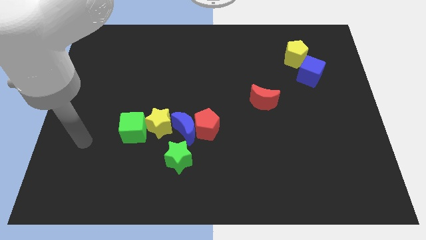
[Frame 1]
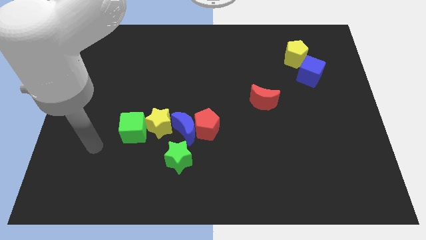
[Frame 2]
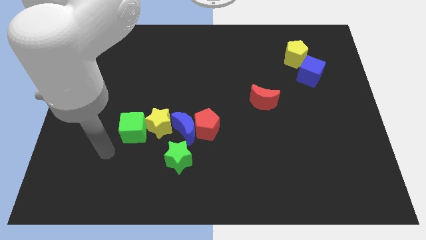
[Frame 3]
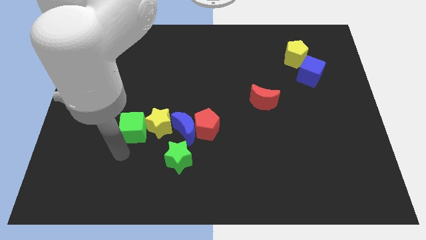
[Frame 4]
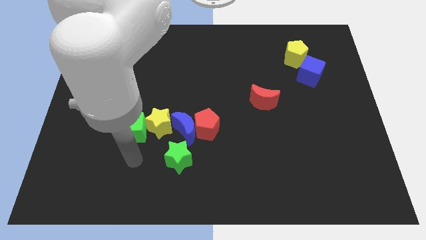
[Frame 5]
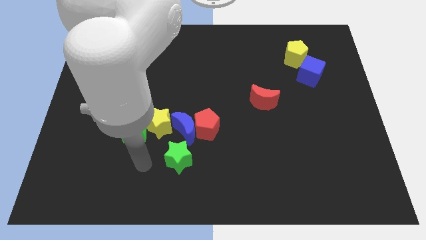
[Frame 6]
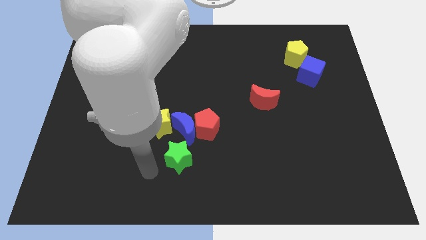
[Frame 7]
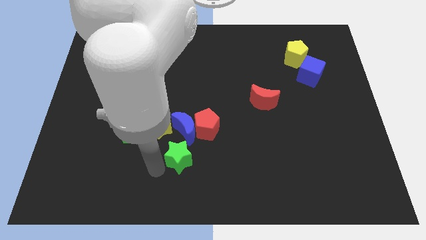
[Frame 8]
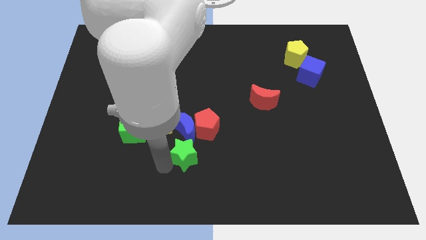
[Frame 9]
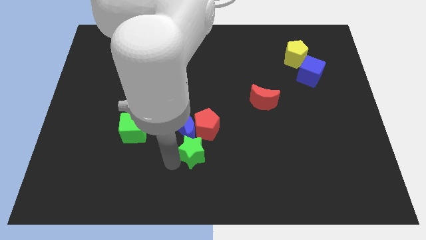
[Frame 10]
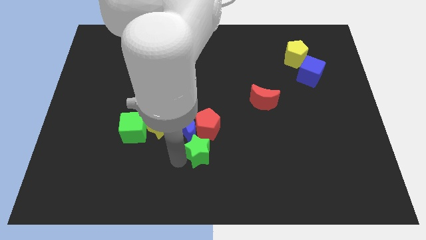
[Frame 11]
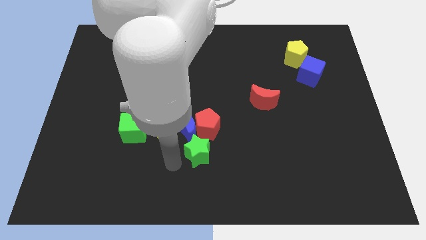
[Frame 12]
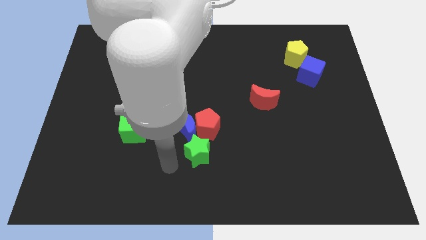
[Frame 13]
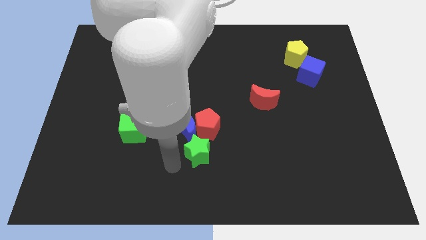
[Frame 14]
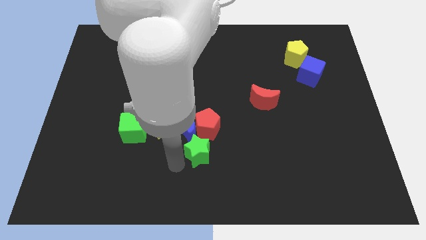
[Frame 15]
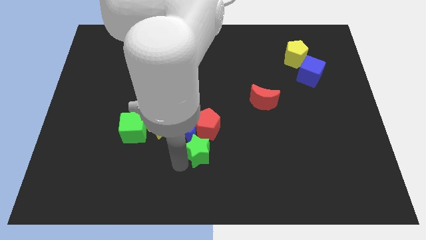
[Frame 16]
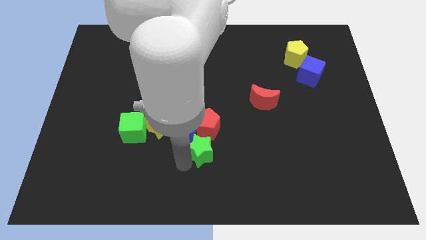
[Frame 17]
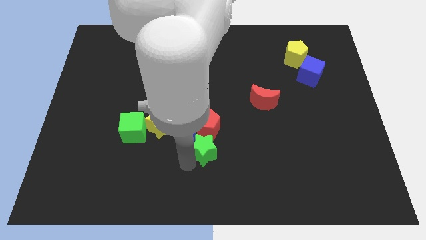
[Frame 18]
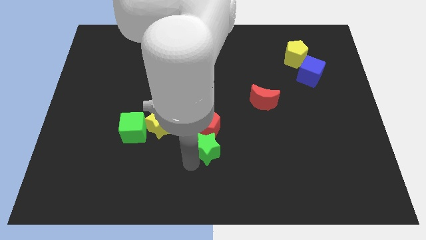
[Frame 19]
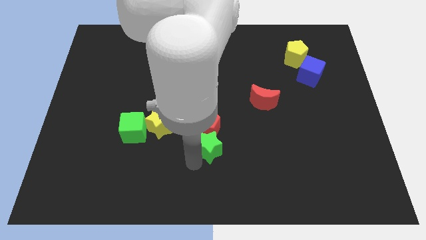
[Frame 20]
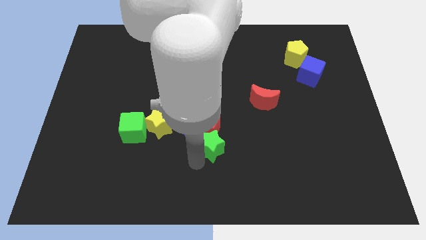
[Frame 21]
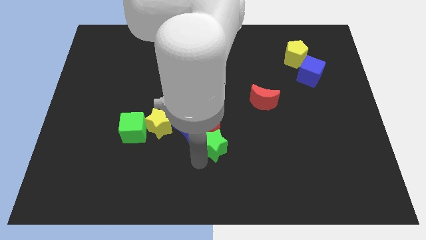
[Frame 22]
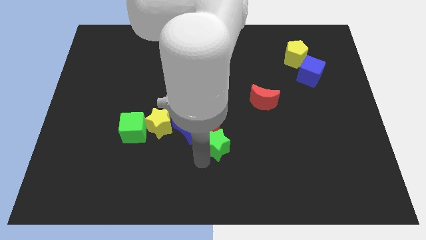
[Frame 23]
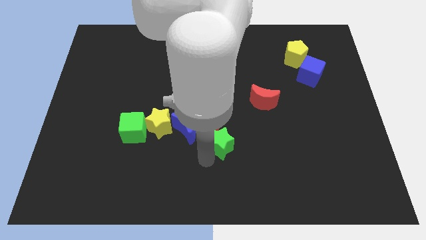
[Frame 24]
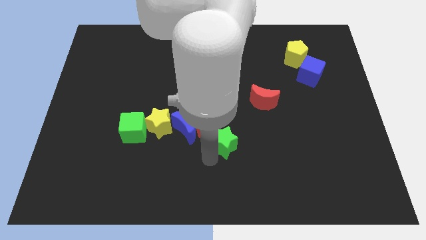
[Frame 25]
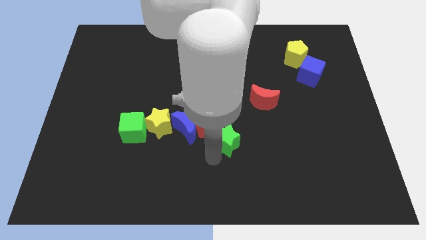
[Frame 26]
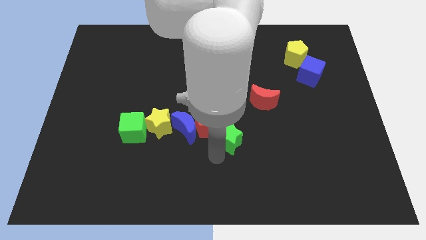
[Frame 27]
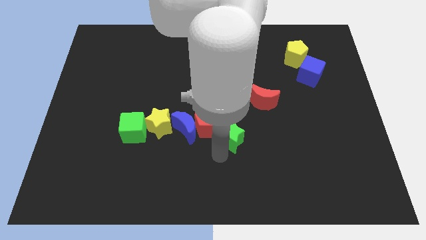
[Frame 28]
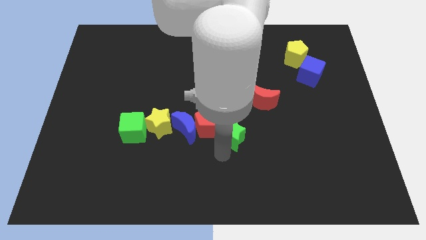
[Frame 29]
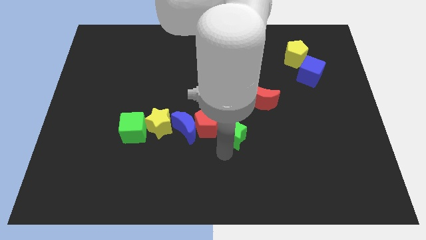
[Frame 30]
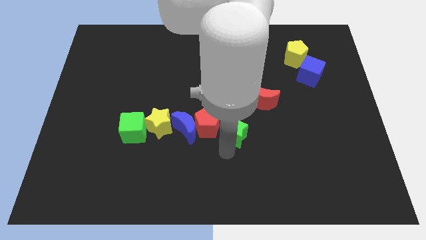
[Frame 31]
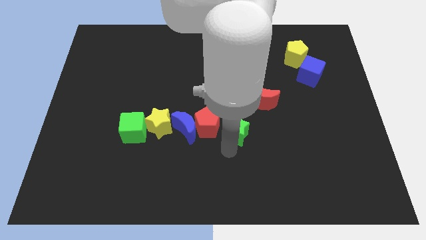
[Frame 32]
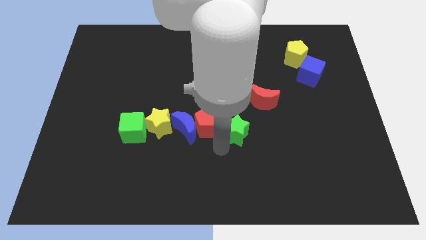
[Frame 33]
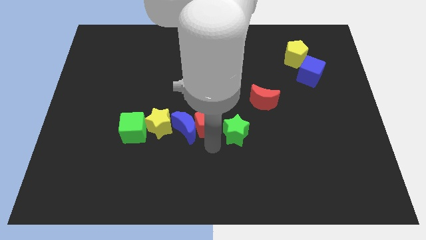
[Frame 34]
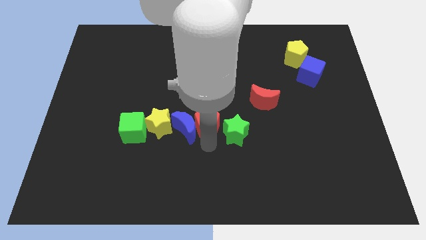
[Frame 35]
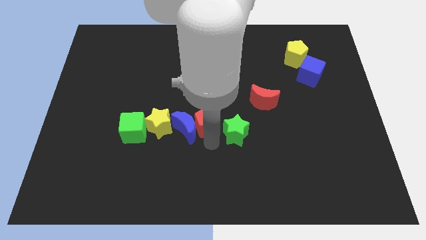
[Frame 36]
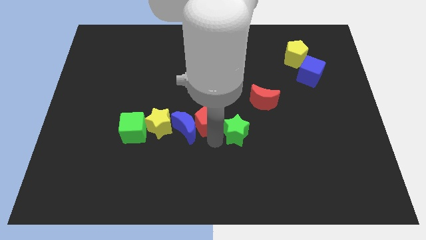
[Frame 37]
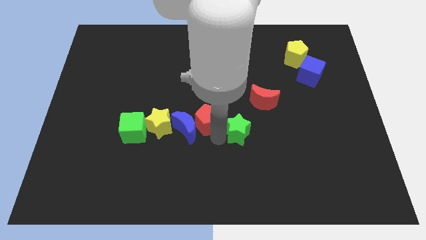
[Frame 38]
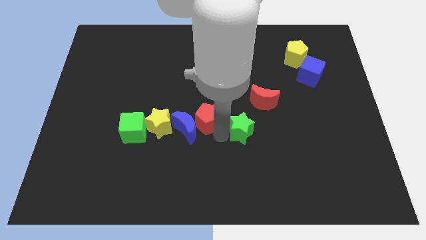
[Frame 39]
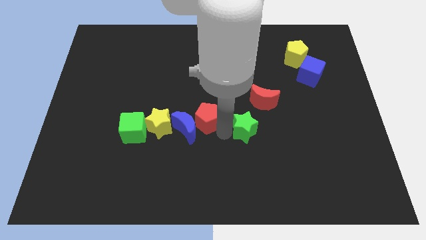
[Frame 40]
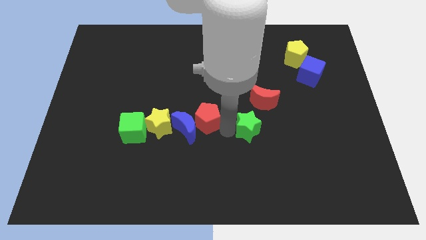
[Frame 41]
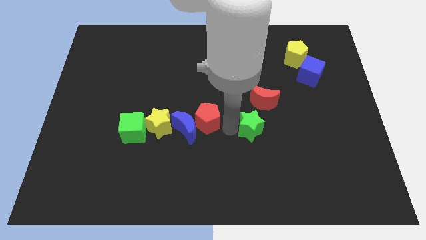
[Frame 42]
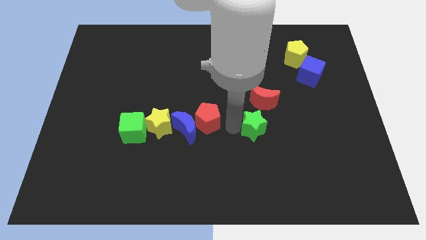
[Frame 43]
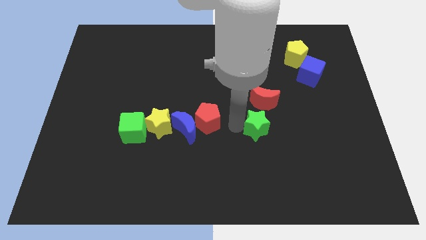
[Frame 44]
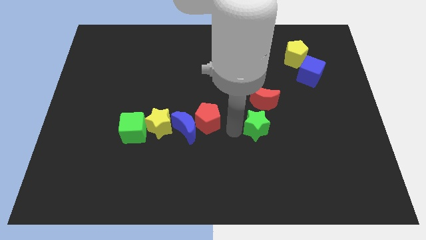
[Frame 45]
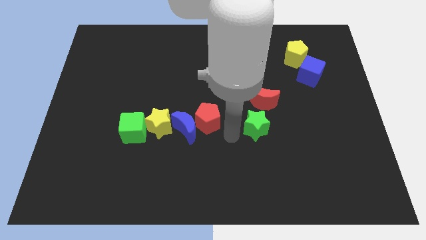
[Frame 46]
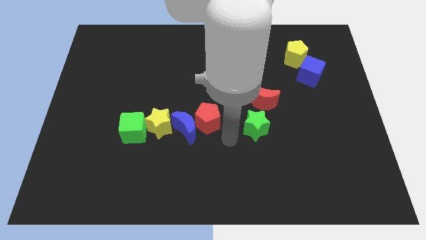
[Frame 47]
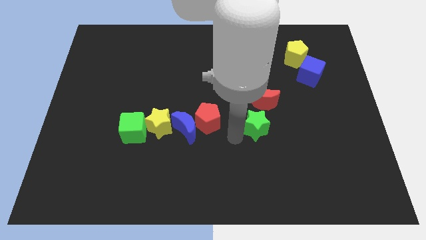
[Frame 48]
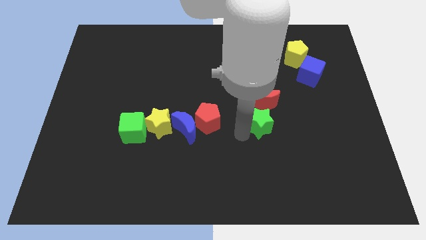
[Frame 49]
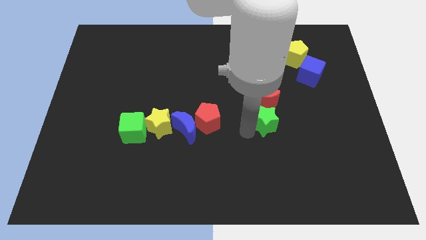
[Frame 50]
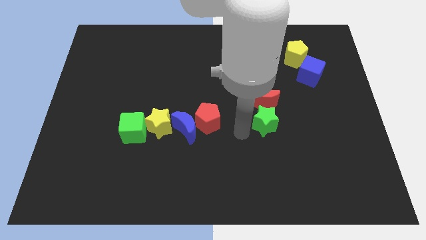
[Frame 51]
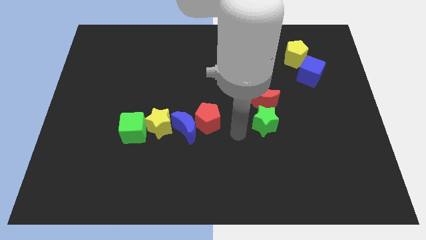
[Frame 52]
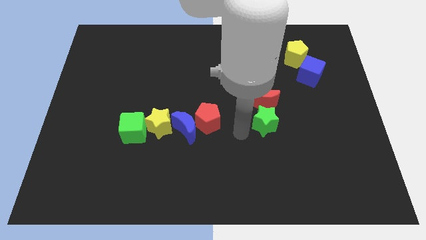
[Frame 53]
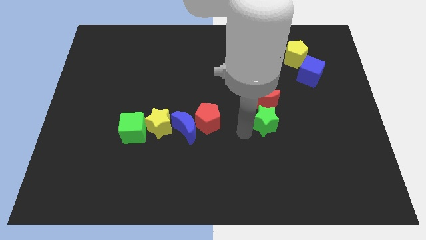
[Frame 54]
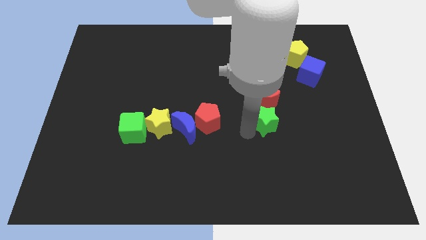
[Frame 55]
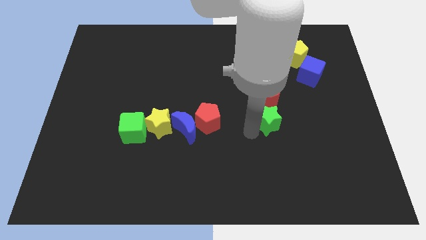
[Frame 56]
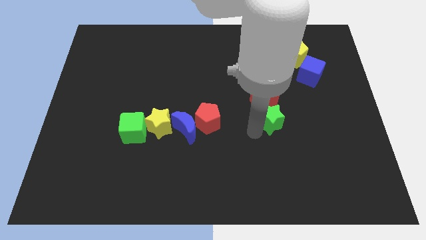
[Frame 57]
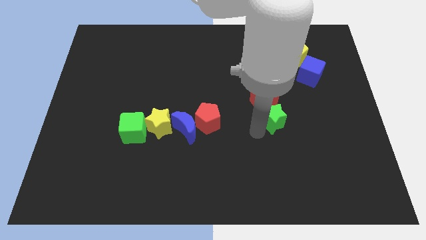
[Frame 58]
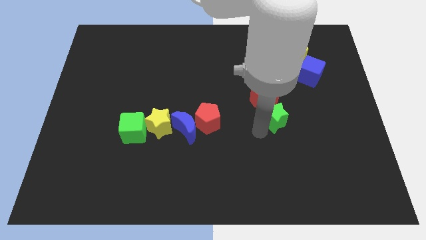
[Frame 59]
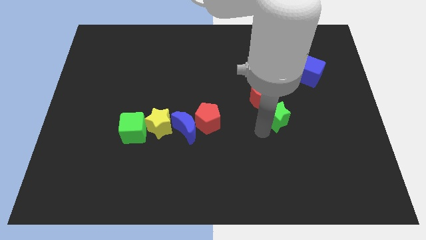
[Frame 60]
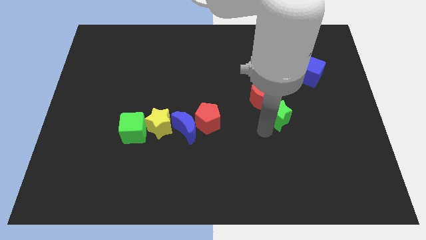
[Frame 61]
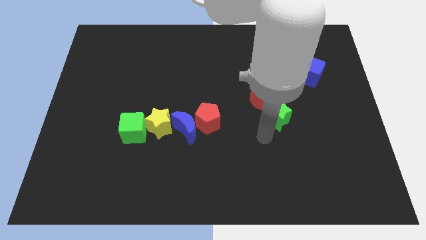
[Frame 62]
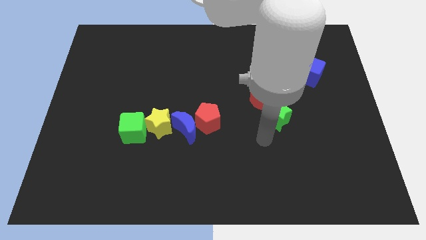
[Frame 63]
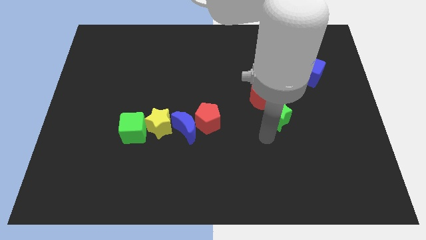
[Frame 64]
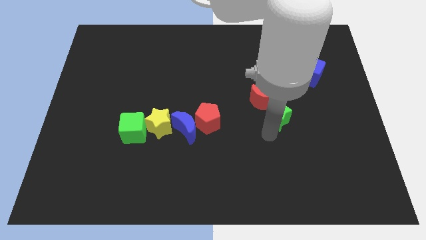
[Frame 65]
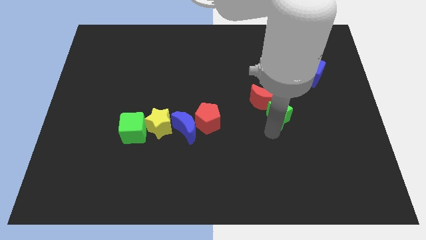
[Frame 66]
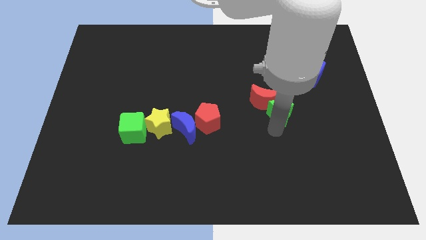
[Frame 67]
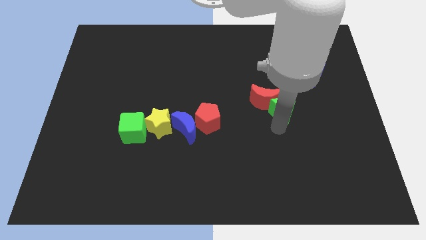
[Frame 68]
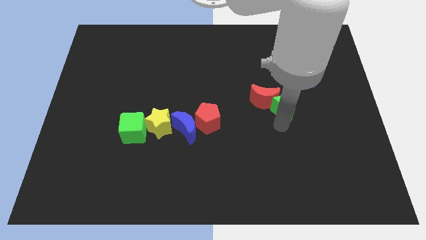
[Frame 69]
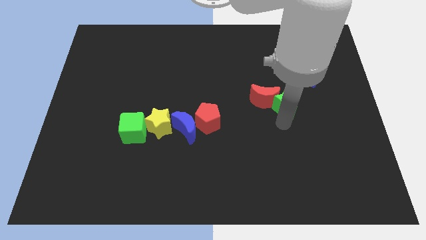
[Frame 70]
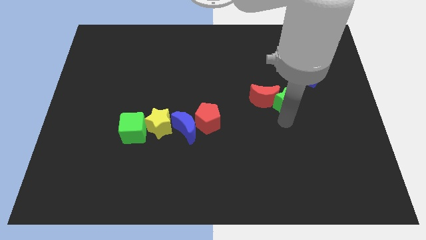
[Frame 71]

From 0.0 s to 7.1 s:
move the green star to the bottom left of the blue cube

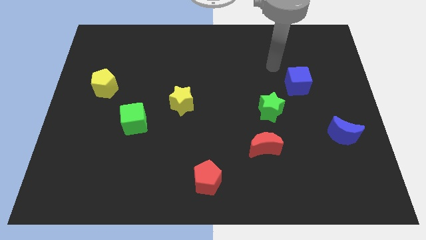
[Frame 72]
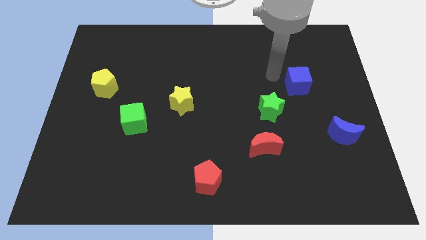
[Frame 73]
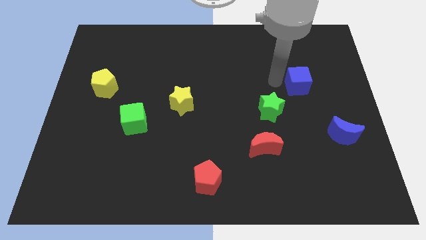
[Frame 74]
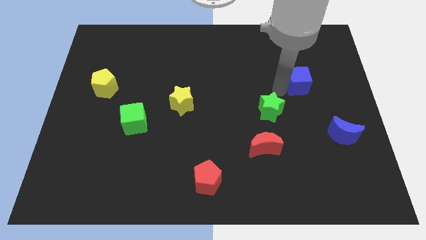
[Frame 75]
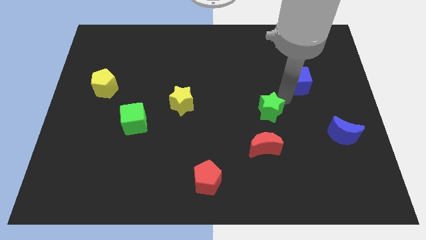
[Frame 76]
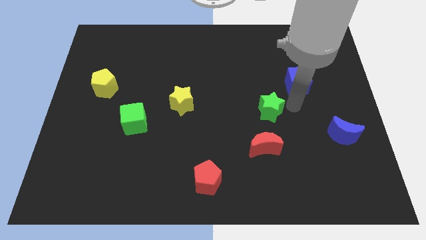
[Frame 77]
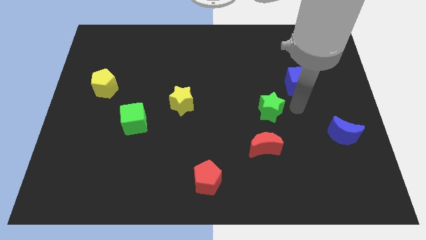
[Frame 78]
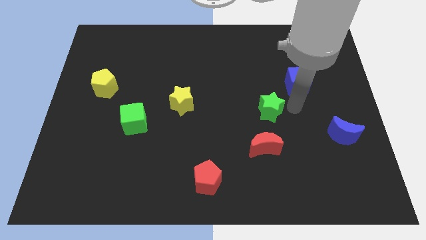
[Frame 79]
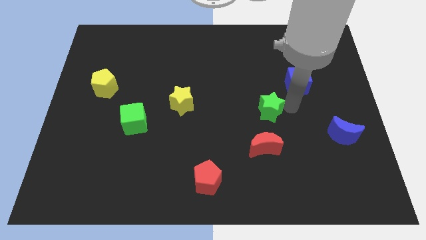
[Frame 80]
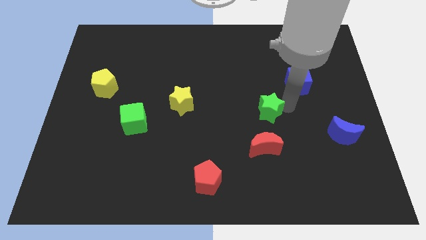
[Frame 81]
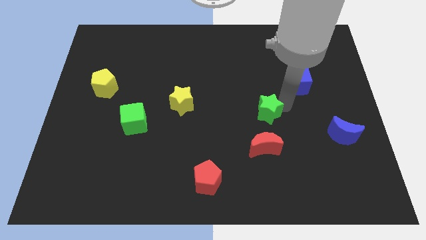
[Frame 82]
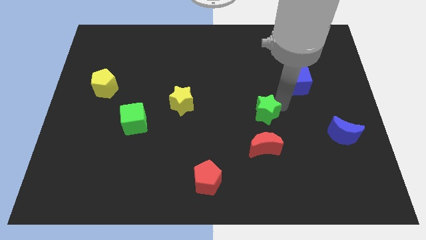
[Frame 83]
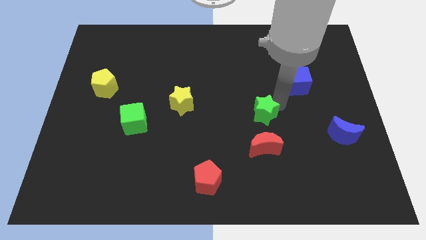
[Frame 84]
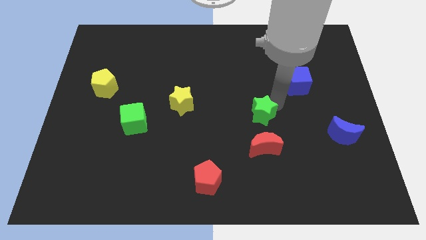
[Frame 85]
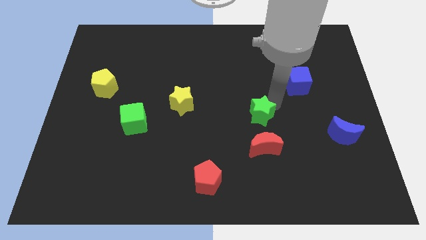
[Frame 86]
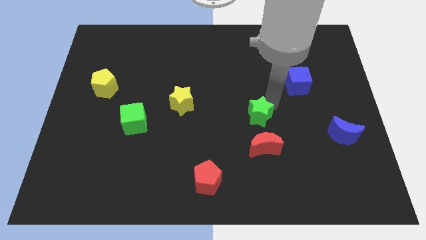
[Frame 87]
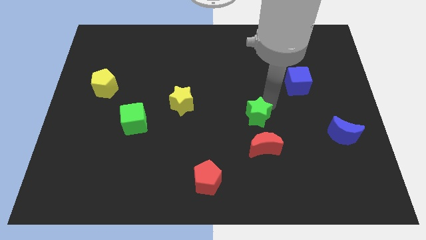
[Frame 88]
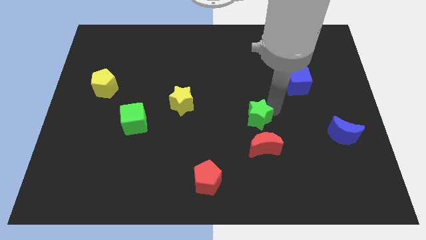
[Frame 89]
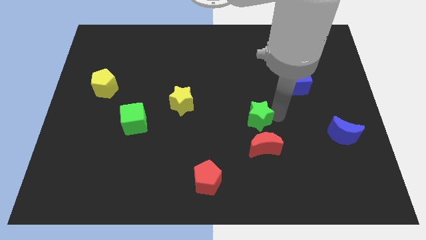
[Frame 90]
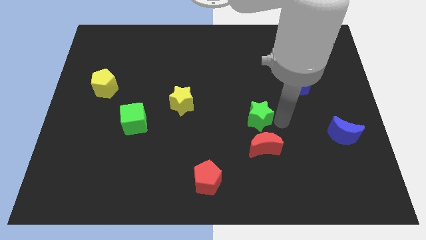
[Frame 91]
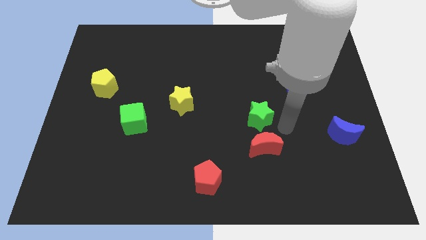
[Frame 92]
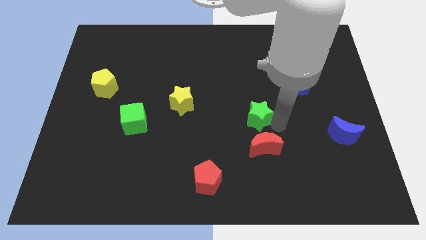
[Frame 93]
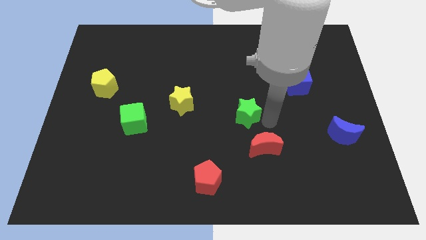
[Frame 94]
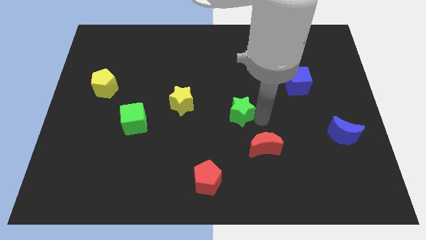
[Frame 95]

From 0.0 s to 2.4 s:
slide the green star right of the yellow star
